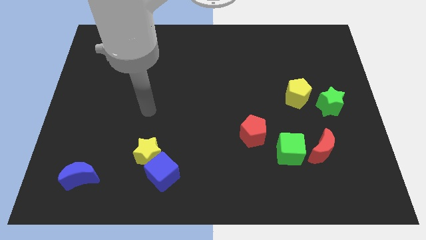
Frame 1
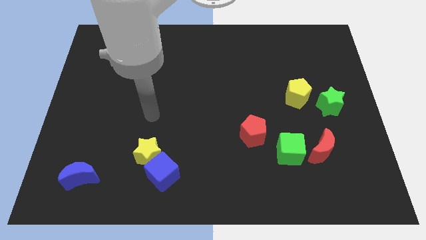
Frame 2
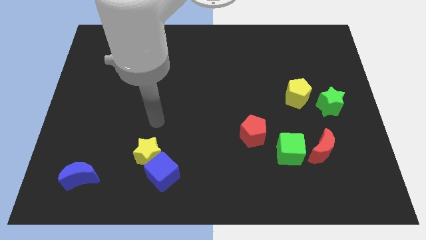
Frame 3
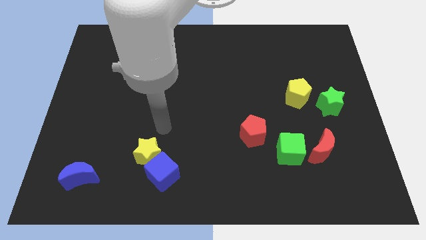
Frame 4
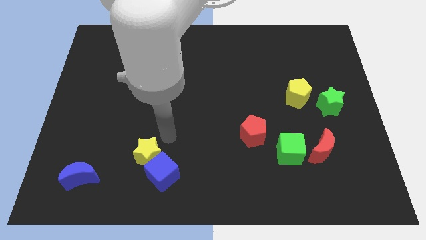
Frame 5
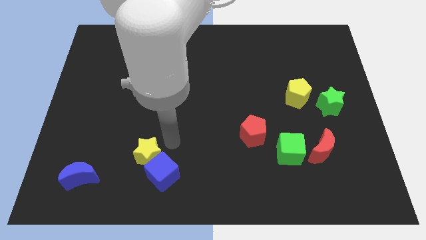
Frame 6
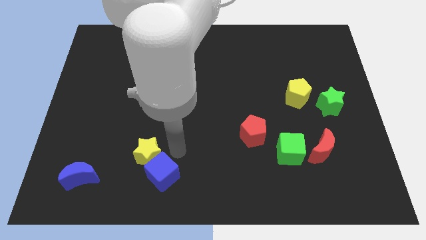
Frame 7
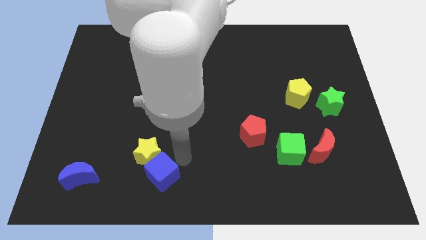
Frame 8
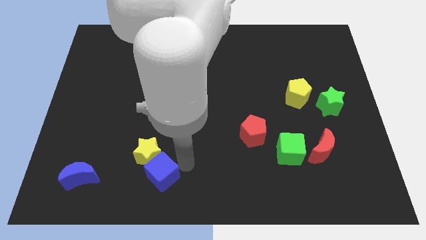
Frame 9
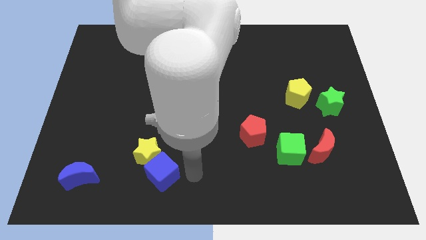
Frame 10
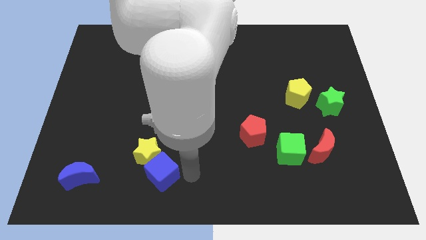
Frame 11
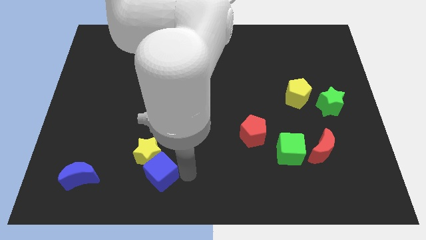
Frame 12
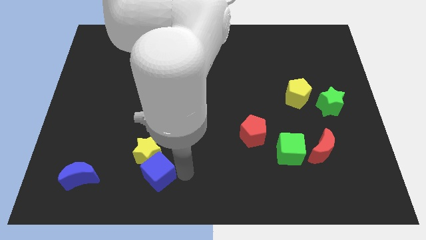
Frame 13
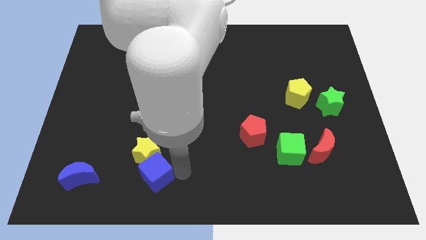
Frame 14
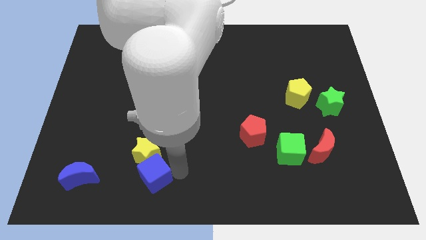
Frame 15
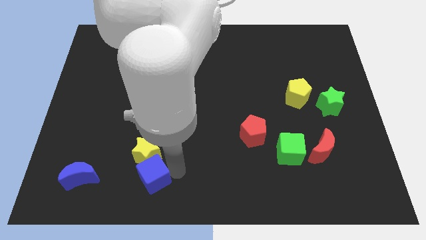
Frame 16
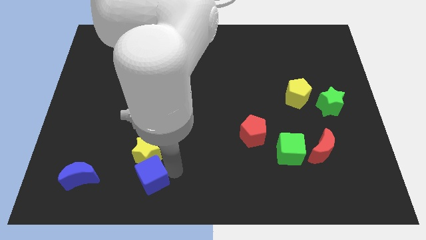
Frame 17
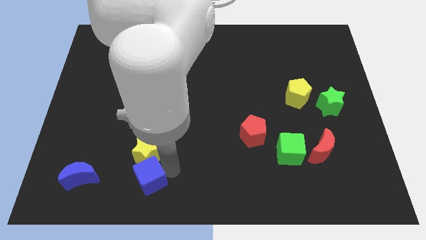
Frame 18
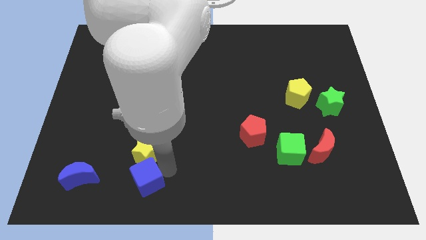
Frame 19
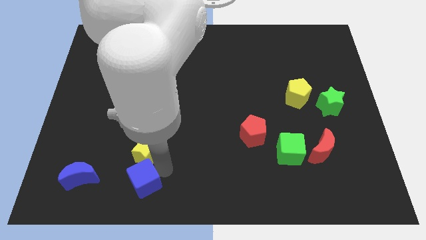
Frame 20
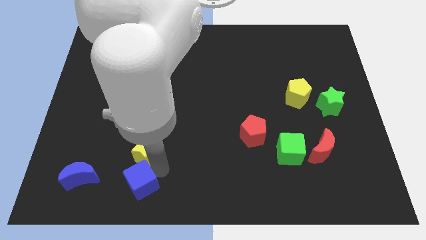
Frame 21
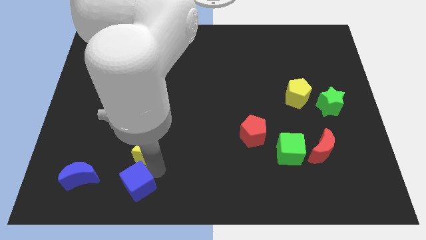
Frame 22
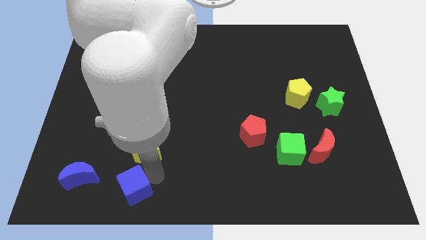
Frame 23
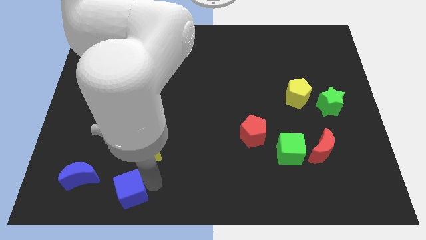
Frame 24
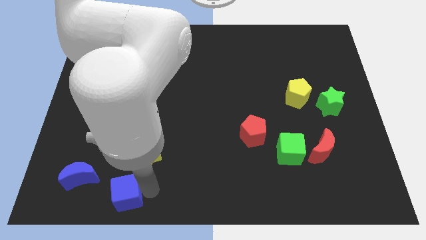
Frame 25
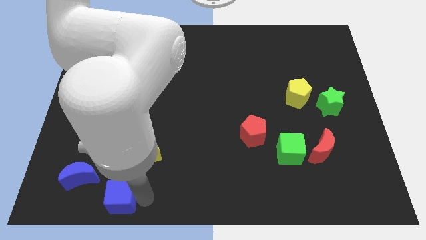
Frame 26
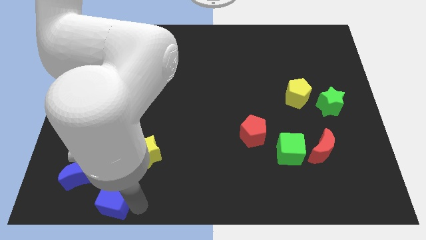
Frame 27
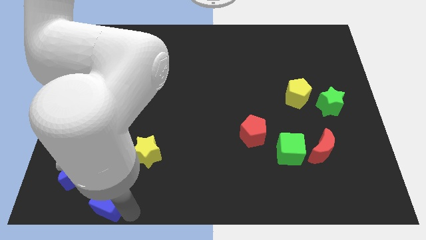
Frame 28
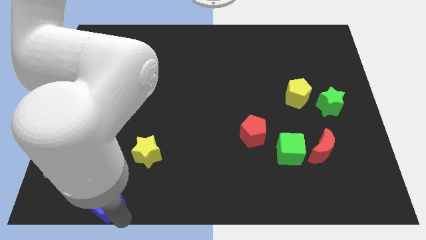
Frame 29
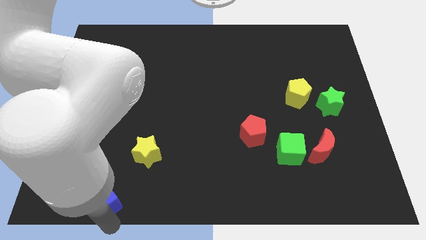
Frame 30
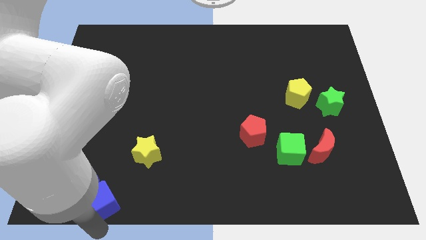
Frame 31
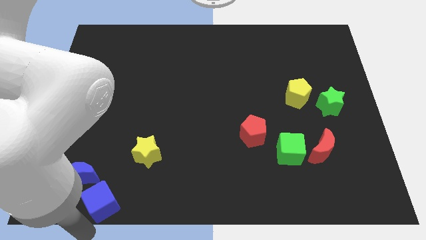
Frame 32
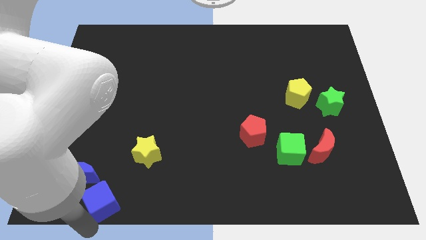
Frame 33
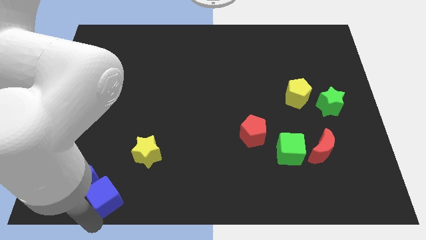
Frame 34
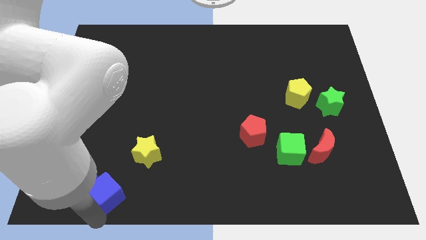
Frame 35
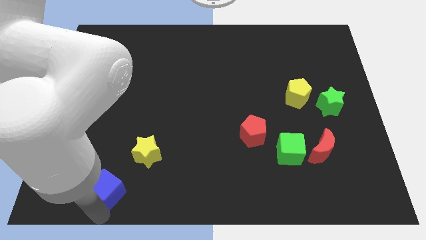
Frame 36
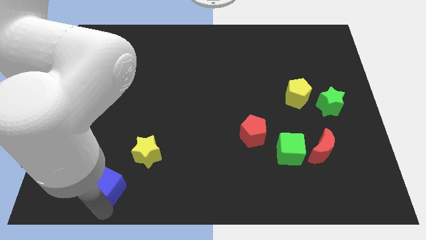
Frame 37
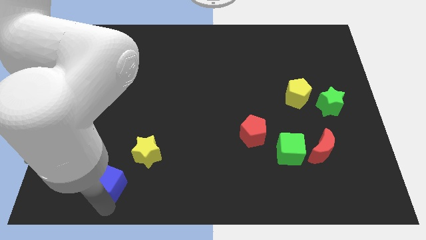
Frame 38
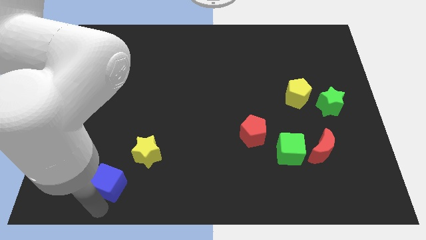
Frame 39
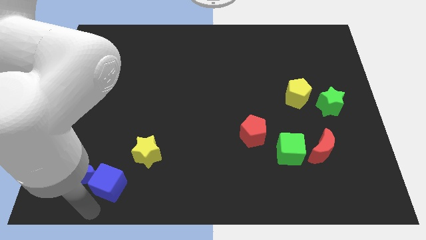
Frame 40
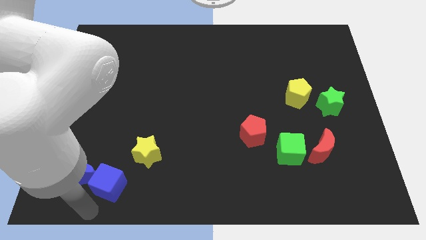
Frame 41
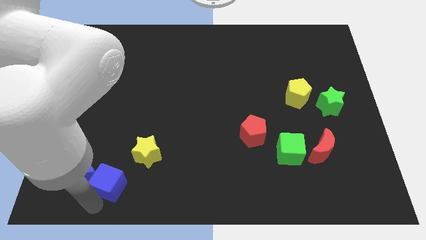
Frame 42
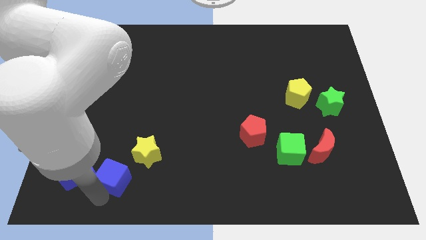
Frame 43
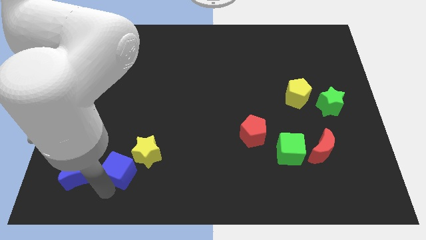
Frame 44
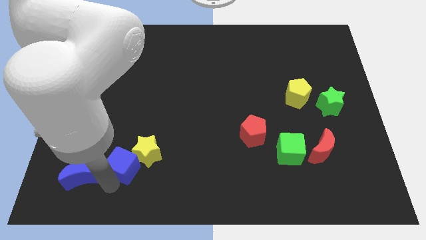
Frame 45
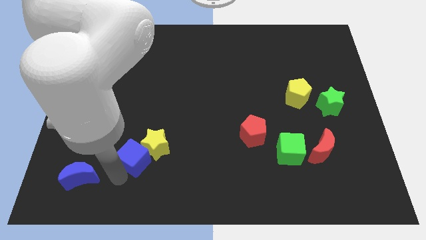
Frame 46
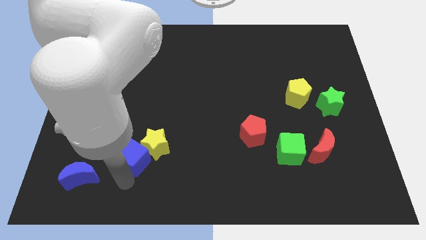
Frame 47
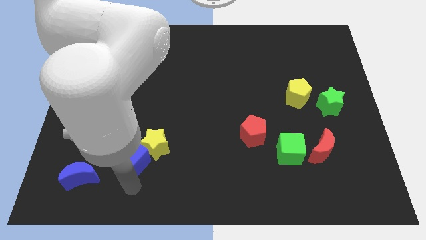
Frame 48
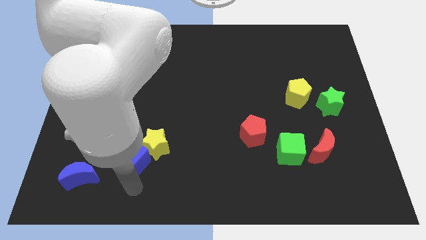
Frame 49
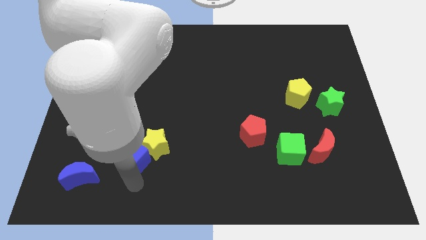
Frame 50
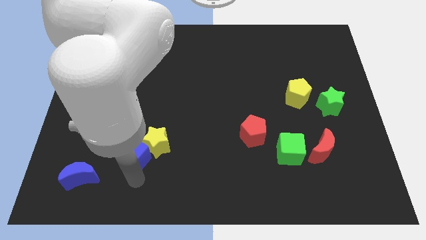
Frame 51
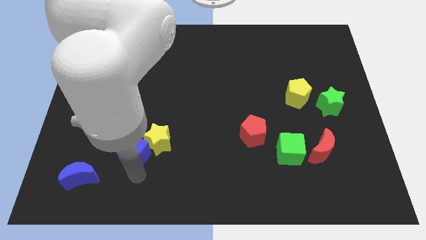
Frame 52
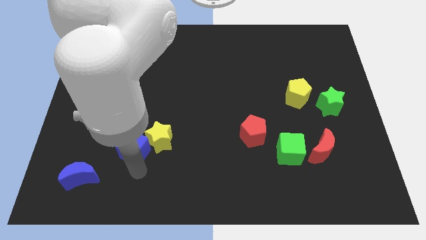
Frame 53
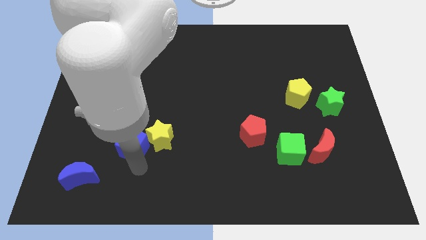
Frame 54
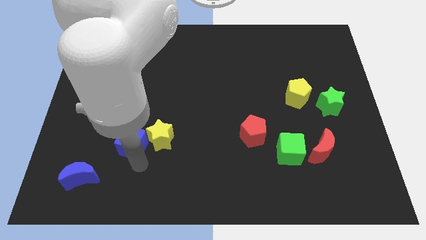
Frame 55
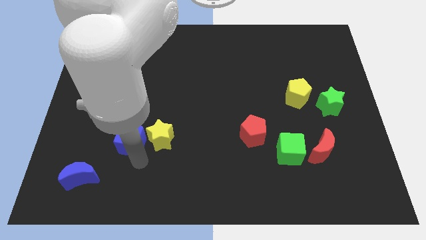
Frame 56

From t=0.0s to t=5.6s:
move the blue cube to the top left of the yellow star

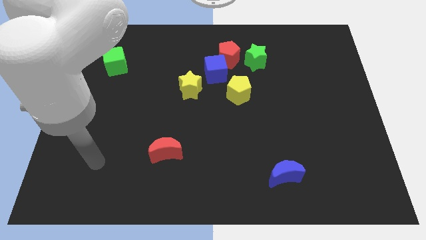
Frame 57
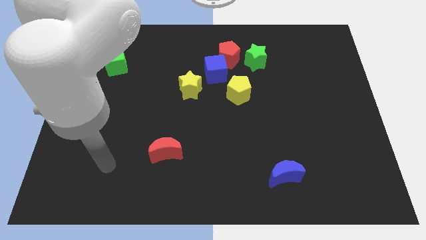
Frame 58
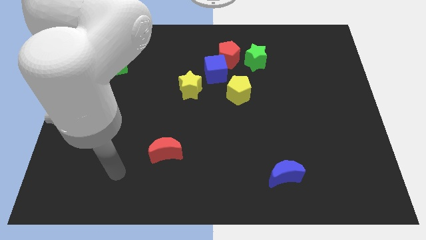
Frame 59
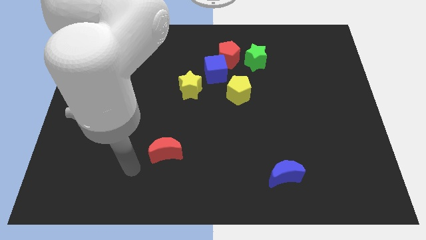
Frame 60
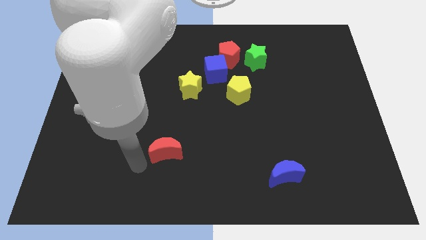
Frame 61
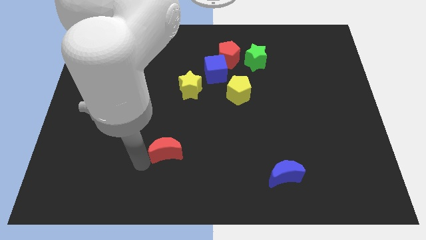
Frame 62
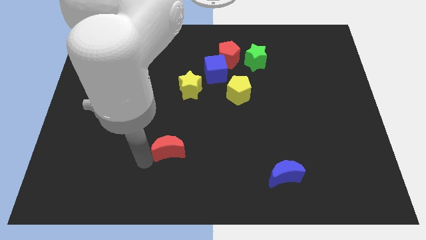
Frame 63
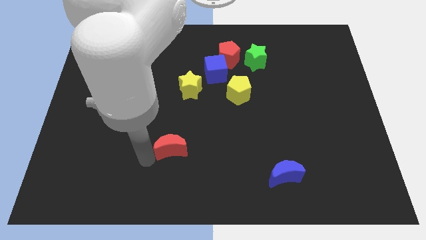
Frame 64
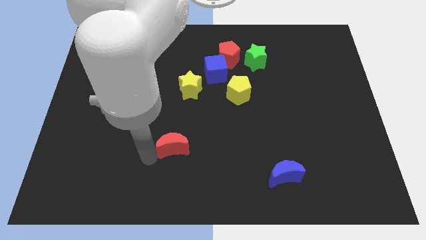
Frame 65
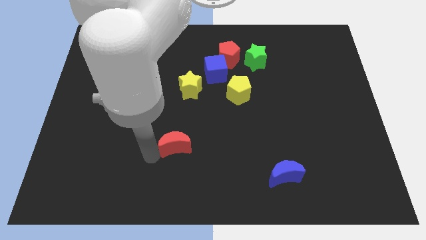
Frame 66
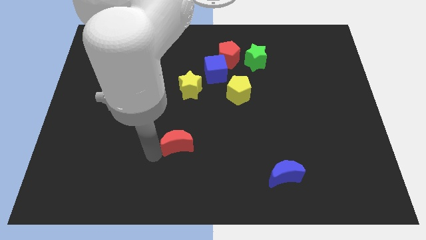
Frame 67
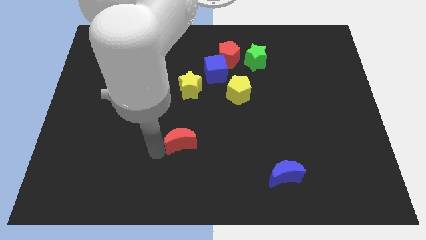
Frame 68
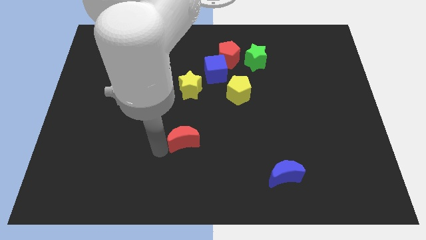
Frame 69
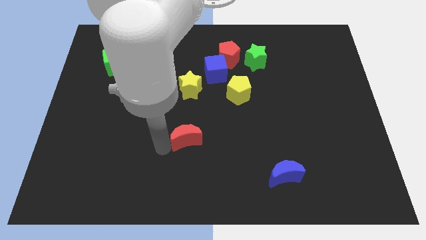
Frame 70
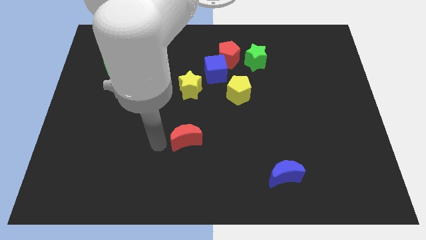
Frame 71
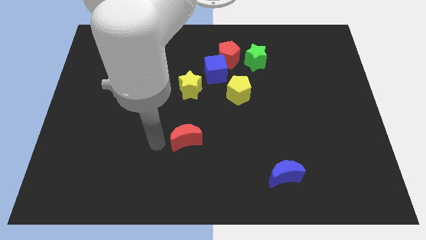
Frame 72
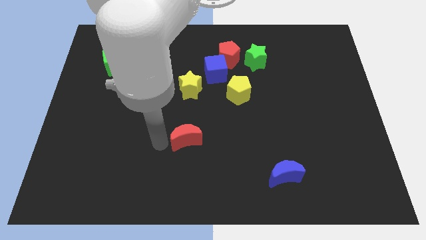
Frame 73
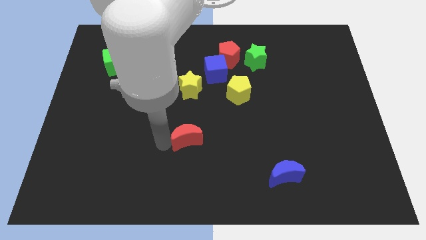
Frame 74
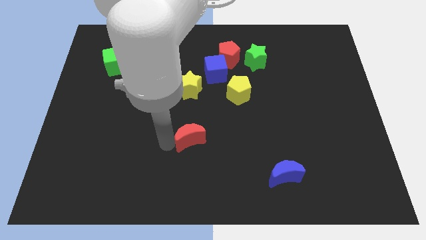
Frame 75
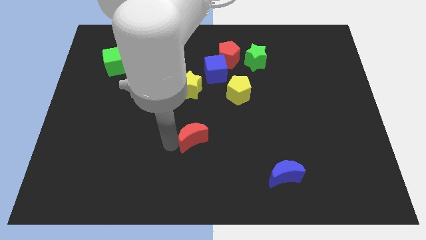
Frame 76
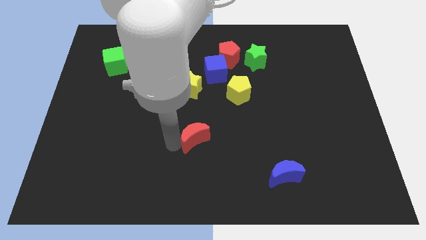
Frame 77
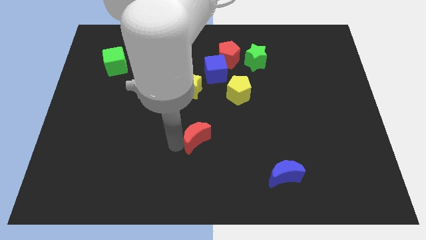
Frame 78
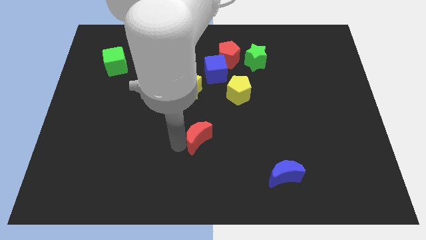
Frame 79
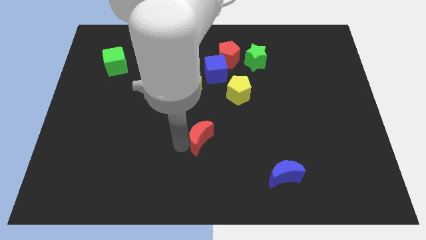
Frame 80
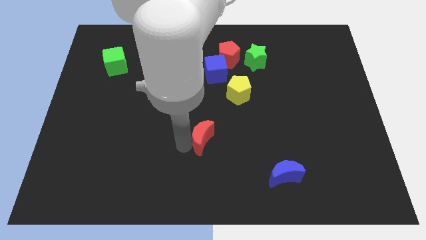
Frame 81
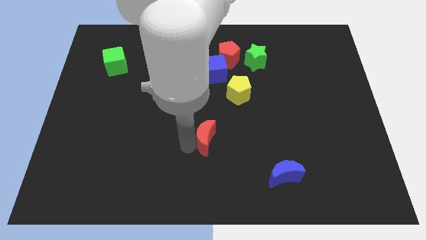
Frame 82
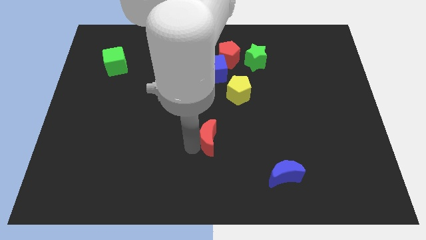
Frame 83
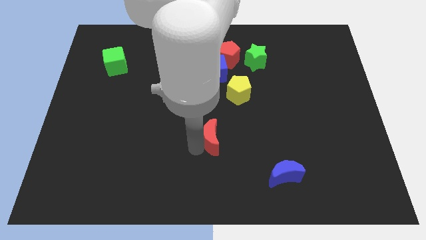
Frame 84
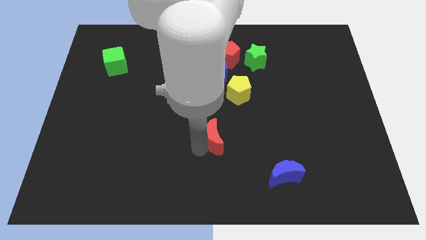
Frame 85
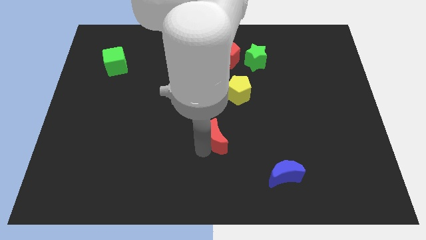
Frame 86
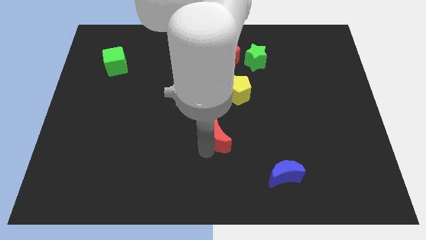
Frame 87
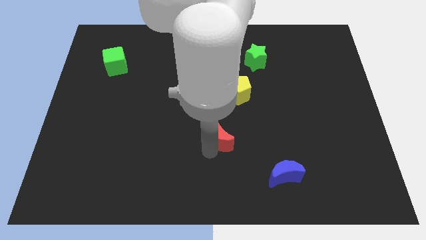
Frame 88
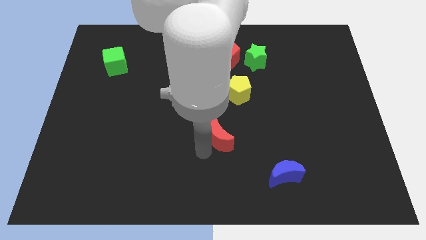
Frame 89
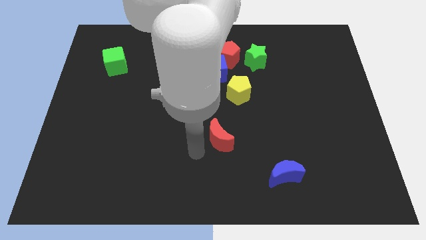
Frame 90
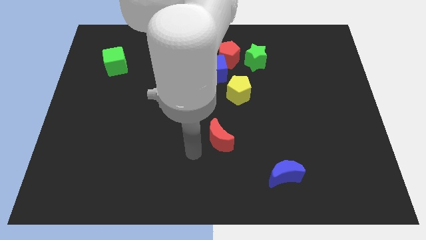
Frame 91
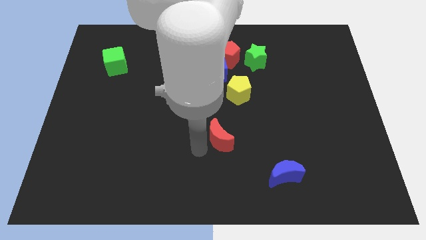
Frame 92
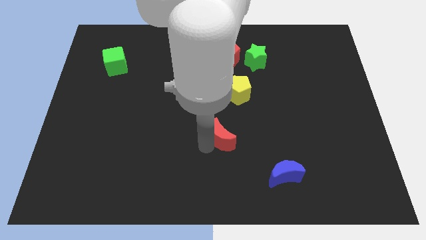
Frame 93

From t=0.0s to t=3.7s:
push the red moon to the bottom of the yellow pentagon
